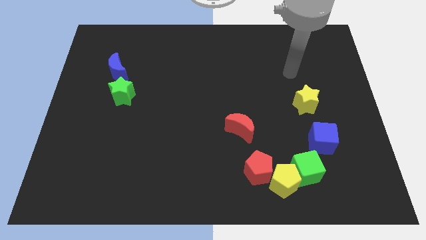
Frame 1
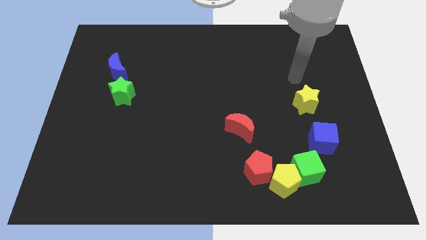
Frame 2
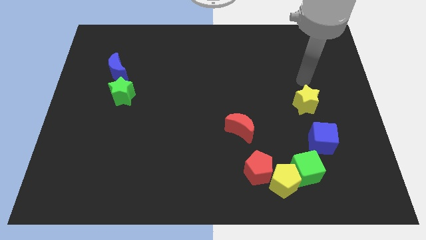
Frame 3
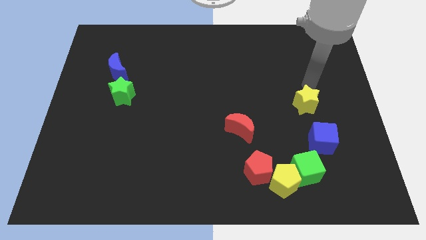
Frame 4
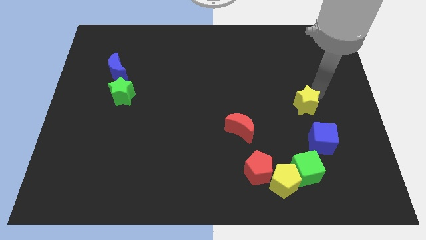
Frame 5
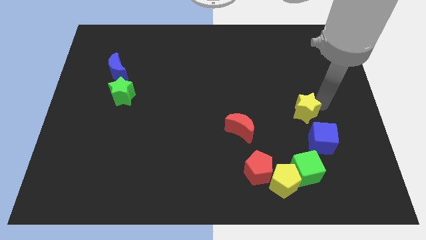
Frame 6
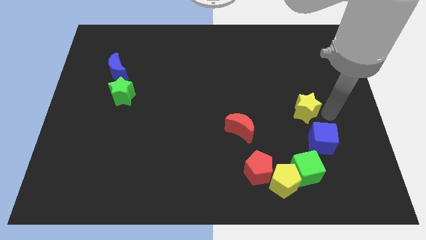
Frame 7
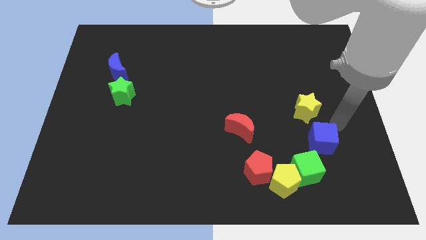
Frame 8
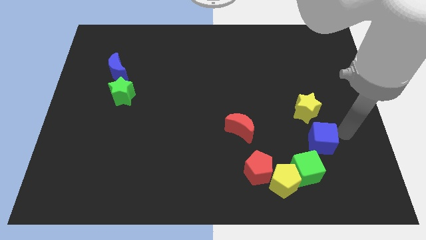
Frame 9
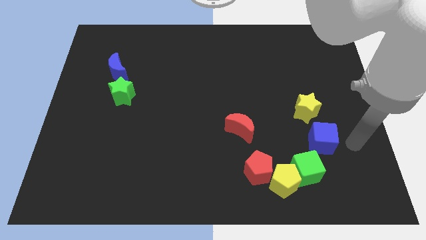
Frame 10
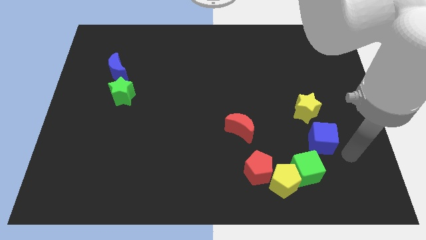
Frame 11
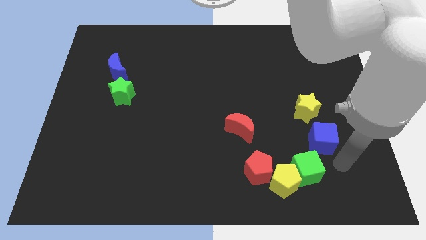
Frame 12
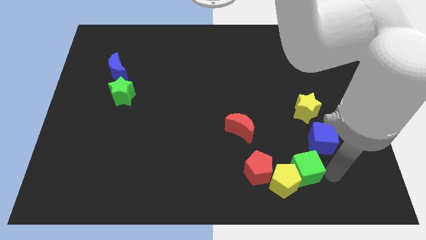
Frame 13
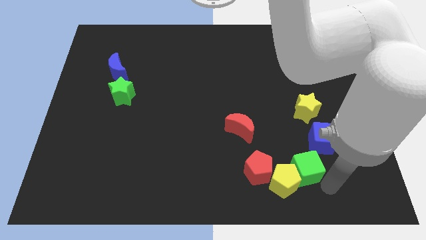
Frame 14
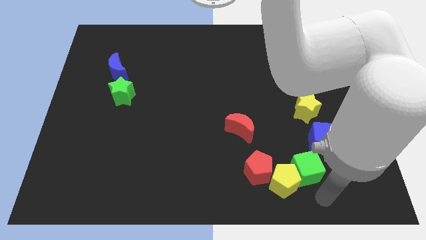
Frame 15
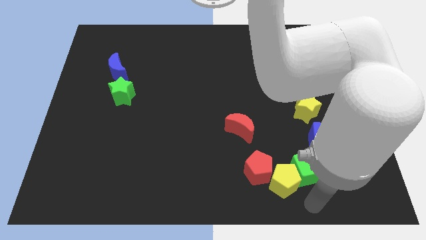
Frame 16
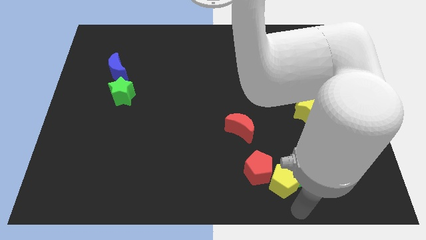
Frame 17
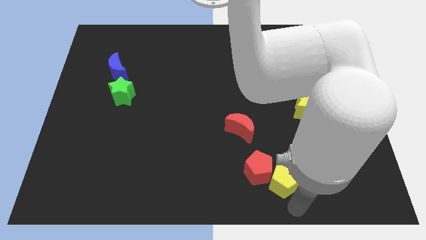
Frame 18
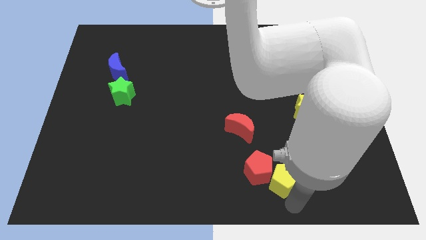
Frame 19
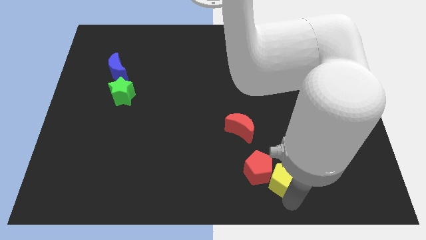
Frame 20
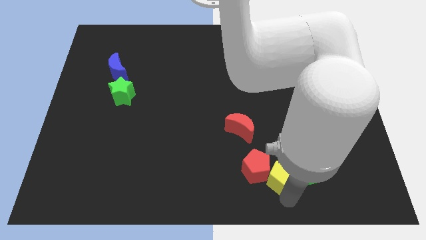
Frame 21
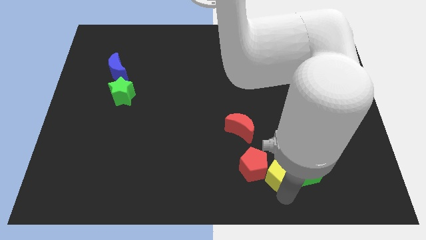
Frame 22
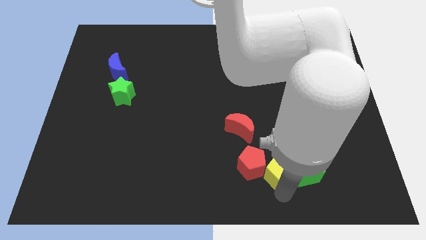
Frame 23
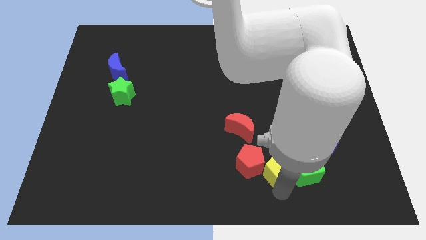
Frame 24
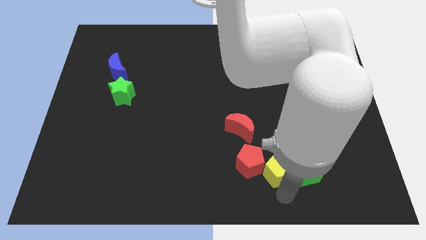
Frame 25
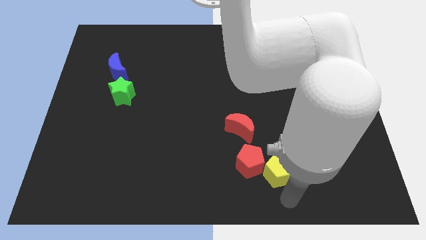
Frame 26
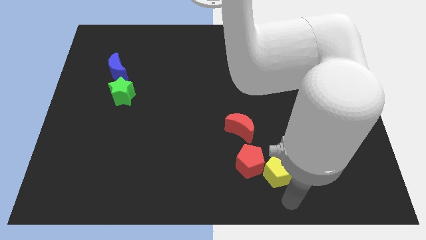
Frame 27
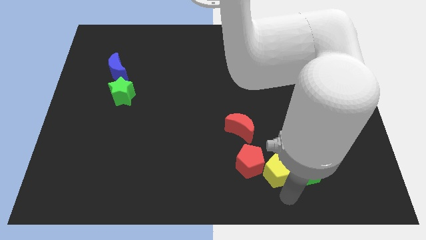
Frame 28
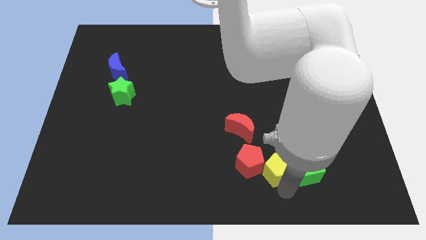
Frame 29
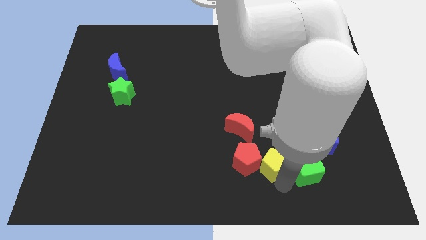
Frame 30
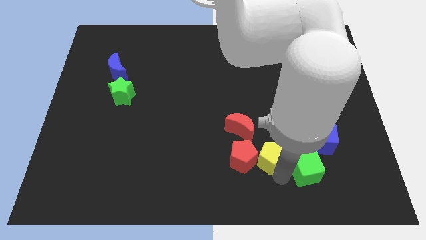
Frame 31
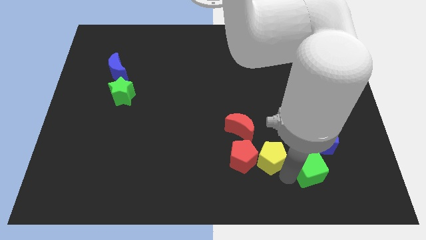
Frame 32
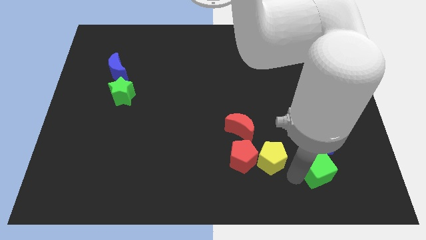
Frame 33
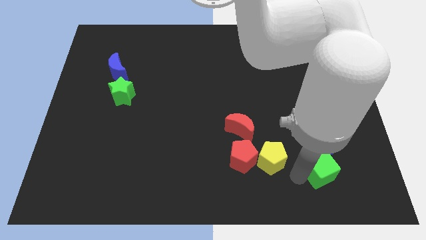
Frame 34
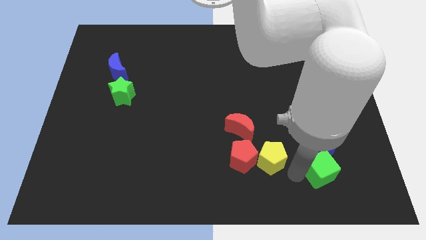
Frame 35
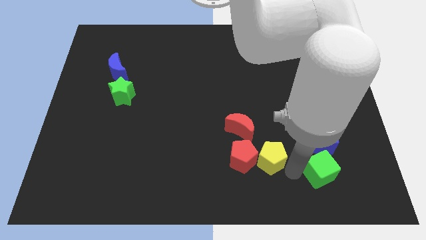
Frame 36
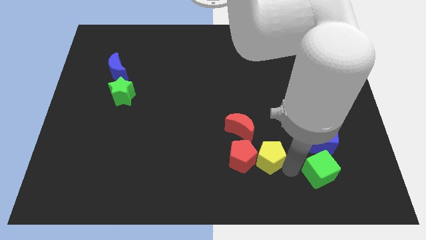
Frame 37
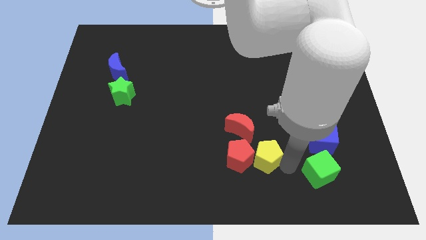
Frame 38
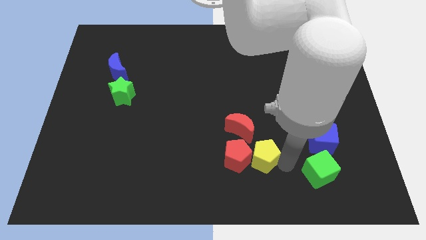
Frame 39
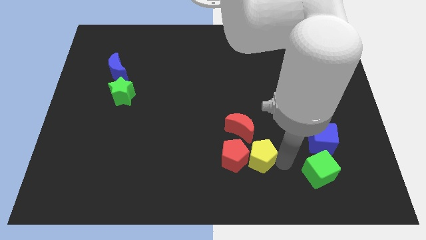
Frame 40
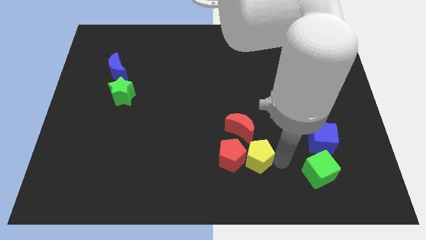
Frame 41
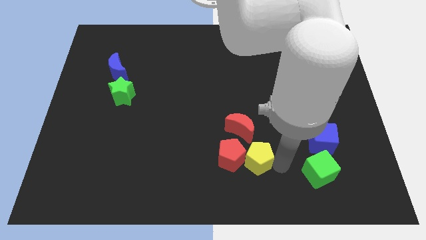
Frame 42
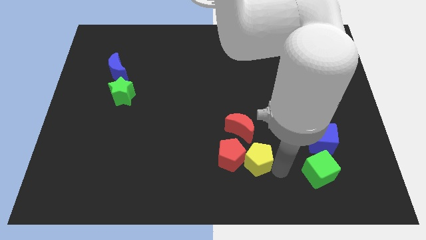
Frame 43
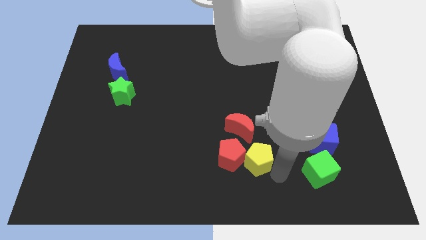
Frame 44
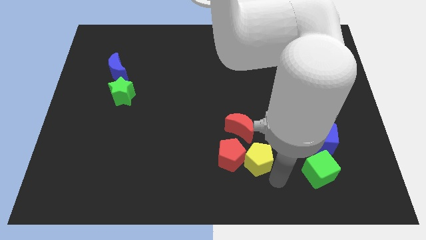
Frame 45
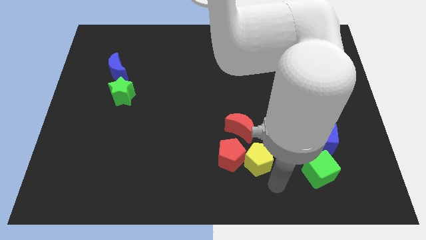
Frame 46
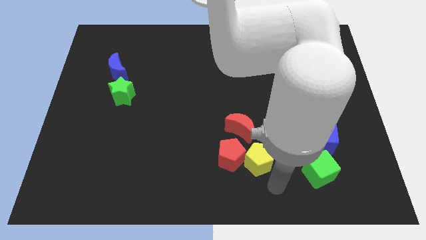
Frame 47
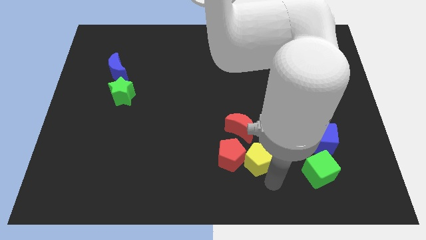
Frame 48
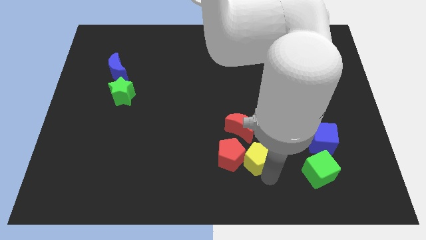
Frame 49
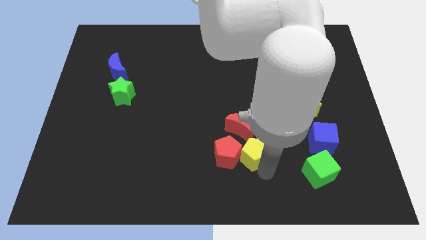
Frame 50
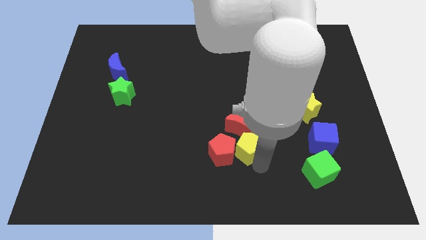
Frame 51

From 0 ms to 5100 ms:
put the yellow pentagon close to the red moon

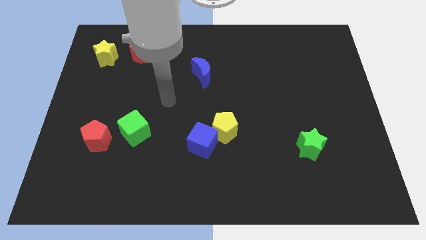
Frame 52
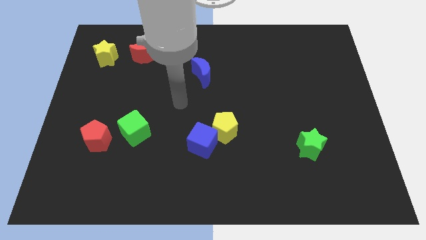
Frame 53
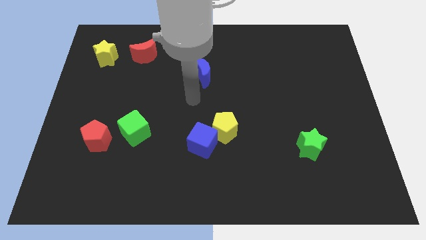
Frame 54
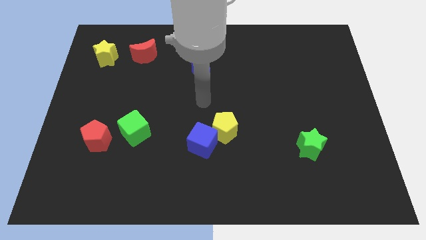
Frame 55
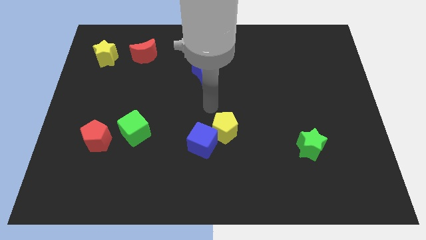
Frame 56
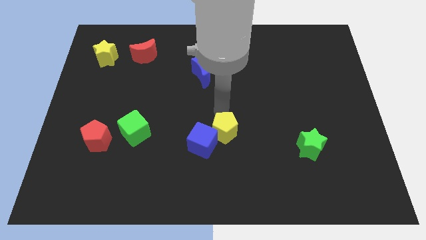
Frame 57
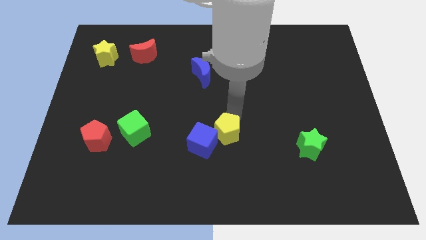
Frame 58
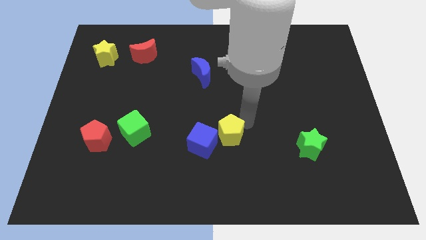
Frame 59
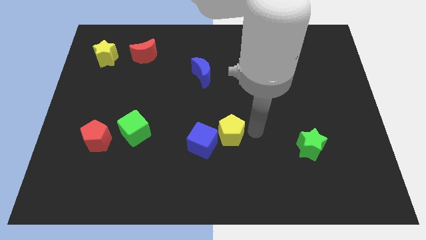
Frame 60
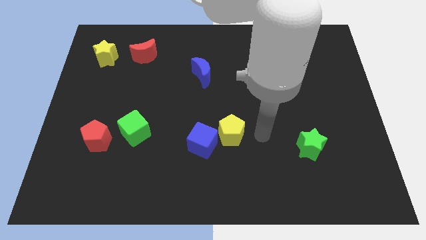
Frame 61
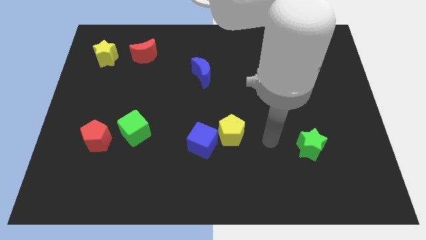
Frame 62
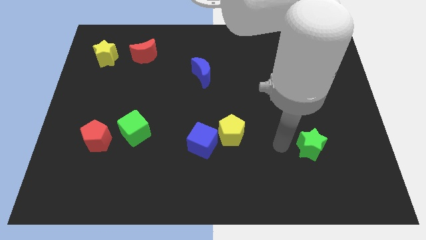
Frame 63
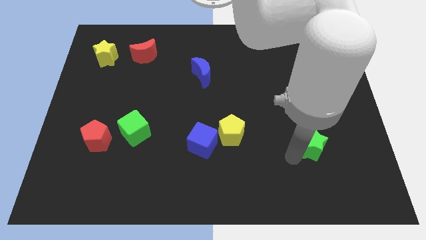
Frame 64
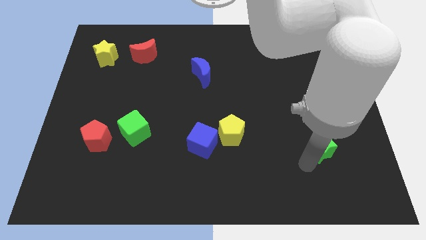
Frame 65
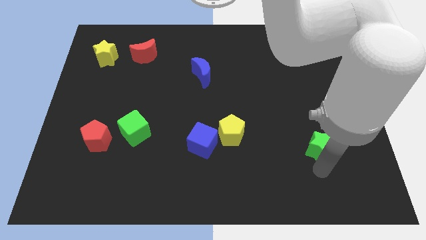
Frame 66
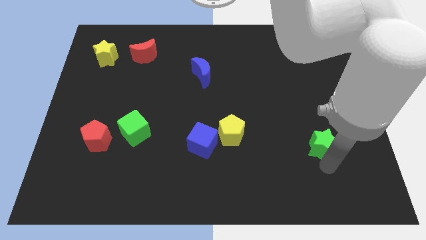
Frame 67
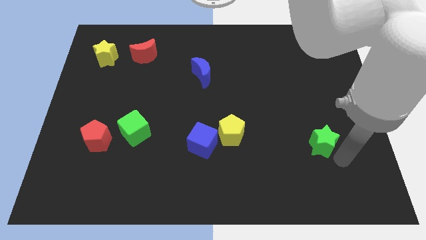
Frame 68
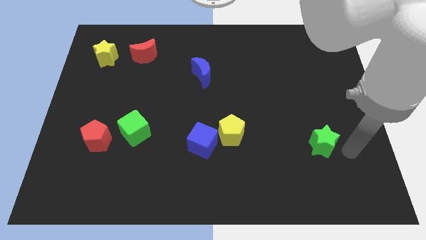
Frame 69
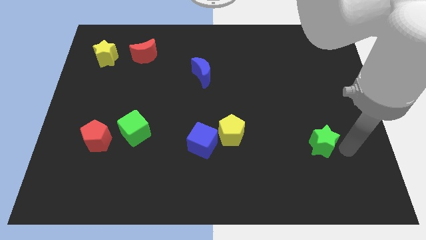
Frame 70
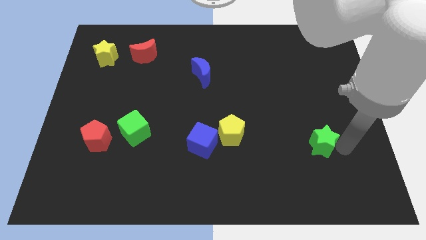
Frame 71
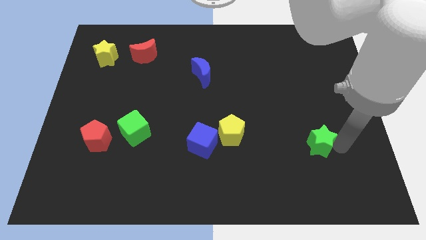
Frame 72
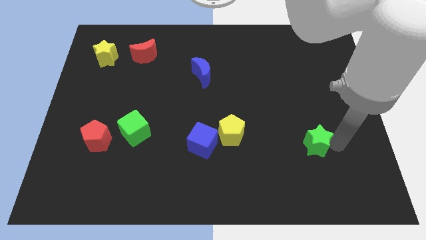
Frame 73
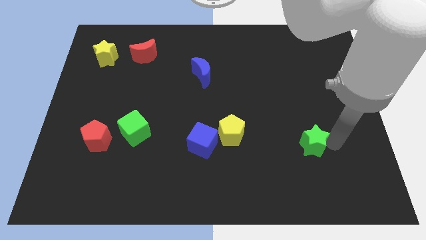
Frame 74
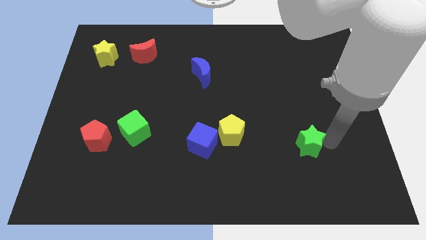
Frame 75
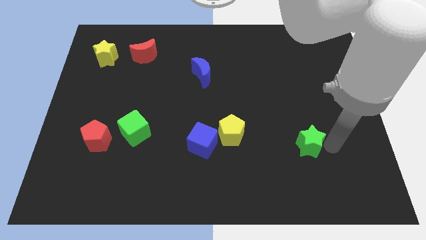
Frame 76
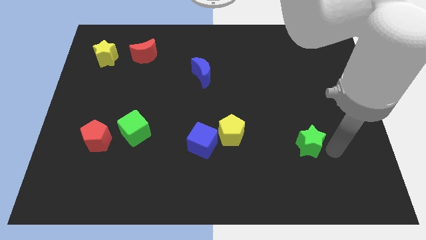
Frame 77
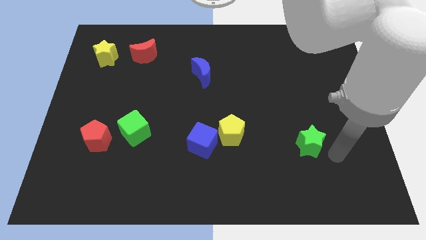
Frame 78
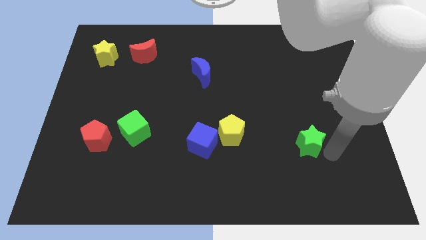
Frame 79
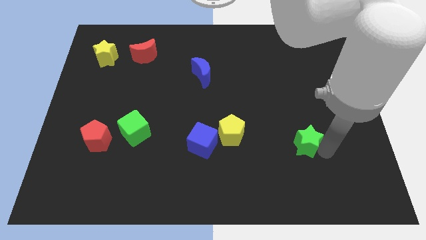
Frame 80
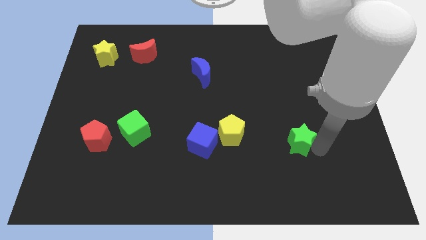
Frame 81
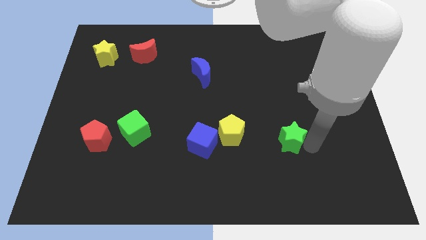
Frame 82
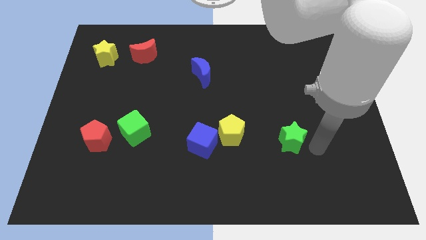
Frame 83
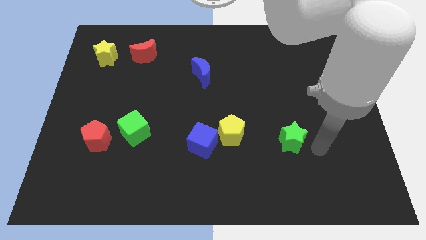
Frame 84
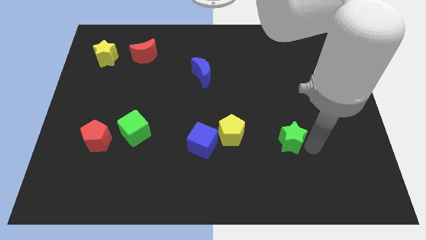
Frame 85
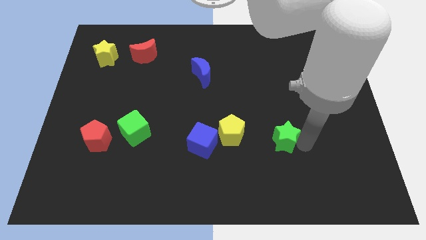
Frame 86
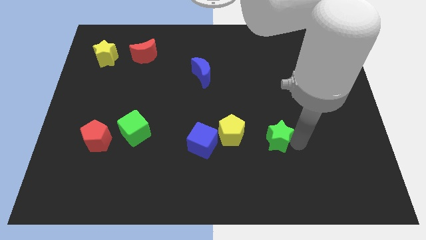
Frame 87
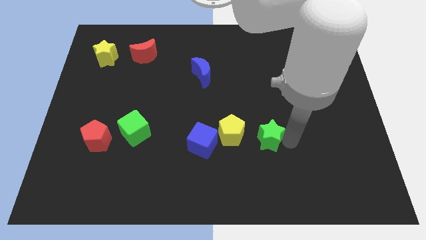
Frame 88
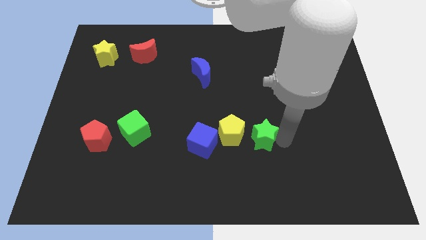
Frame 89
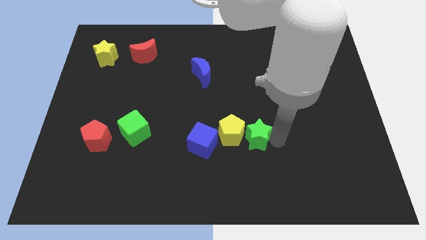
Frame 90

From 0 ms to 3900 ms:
move the green star to the yellow pentagon
